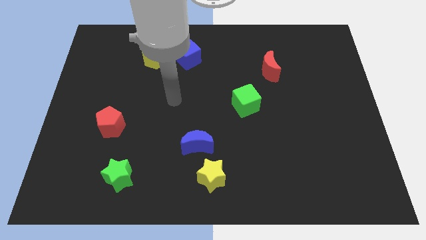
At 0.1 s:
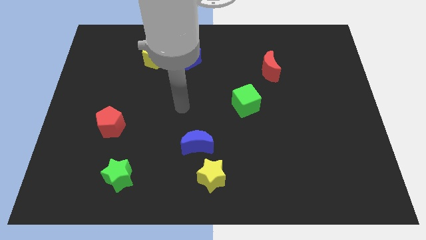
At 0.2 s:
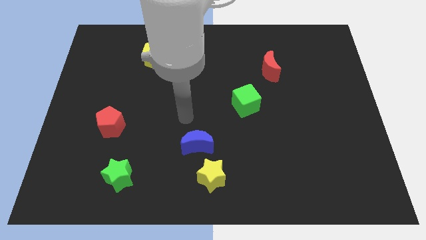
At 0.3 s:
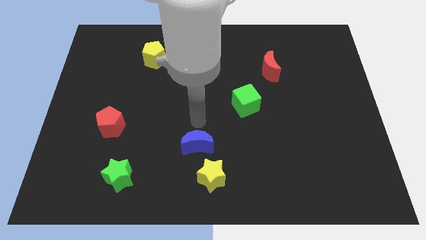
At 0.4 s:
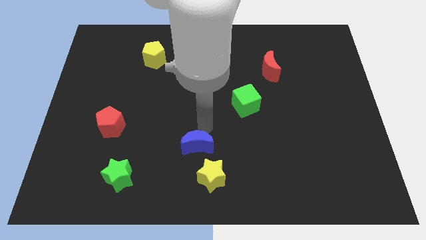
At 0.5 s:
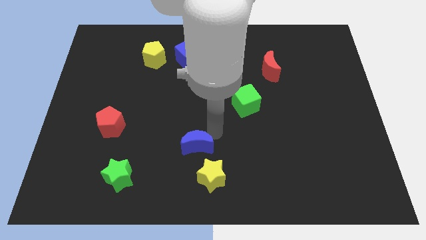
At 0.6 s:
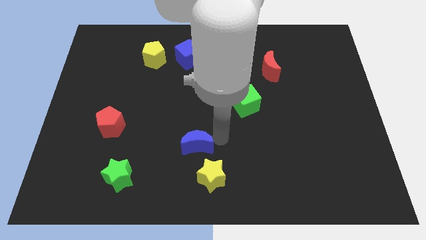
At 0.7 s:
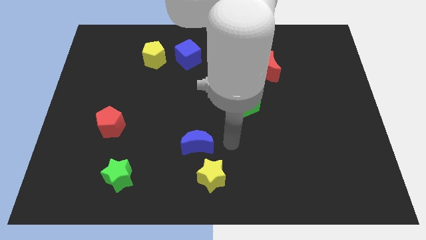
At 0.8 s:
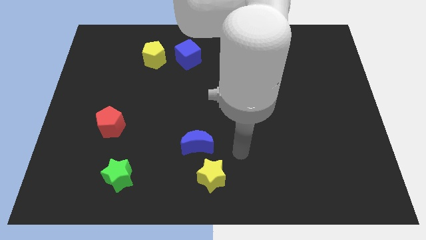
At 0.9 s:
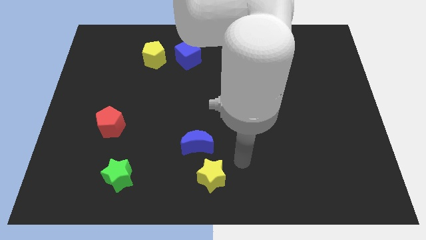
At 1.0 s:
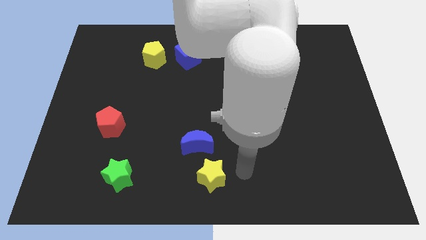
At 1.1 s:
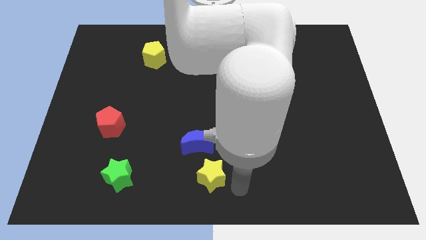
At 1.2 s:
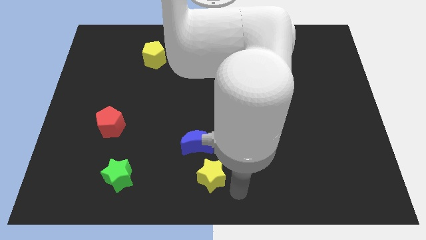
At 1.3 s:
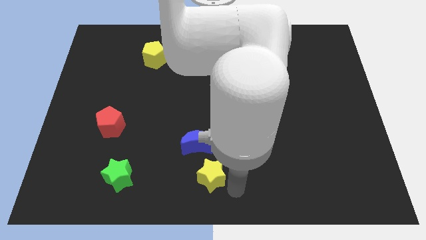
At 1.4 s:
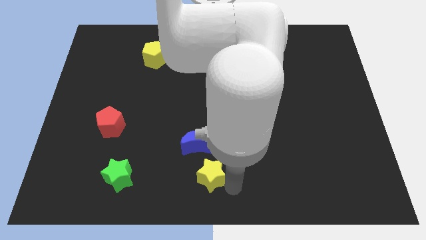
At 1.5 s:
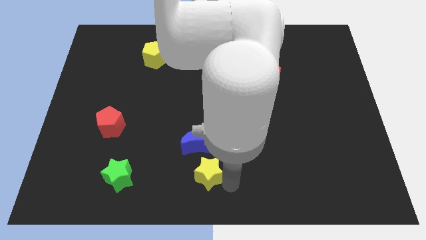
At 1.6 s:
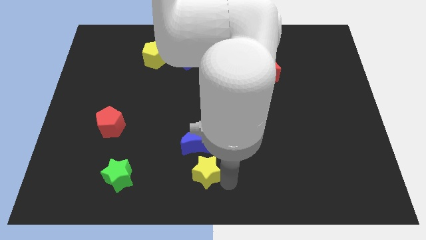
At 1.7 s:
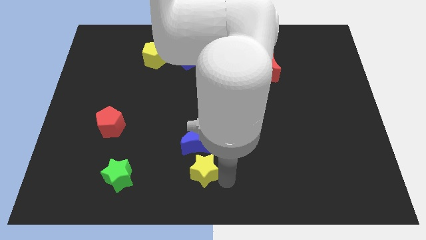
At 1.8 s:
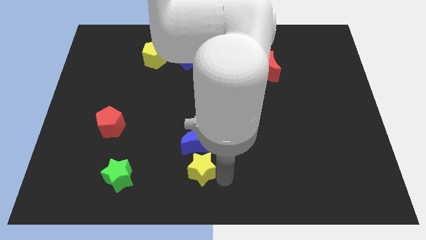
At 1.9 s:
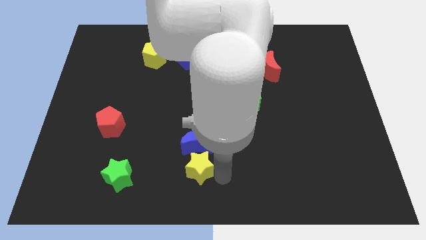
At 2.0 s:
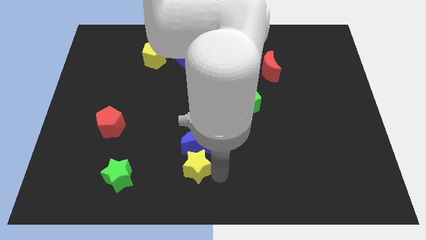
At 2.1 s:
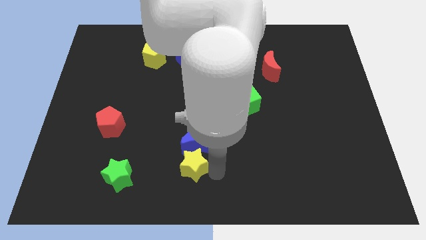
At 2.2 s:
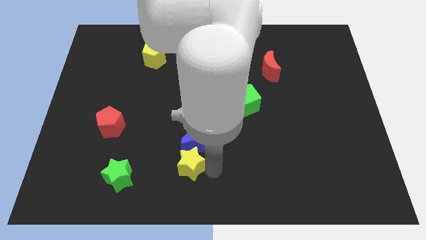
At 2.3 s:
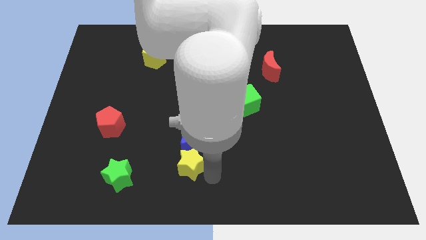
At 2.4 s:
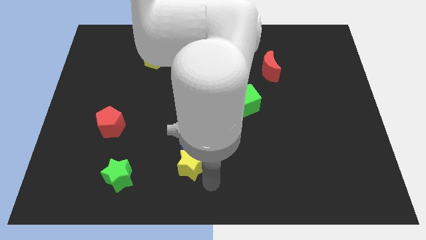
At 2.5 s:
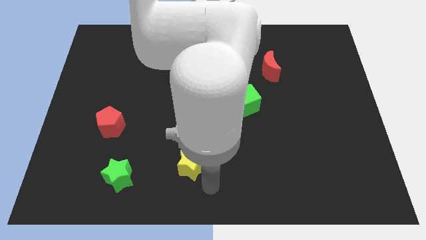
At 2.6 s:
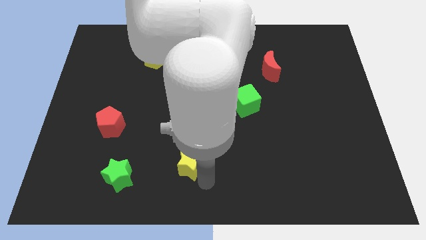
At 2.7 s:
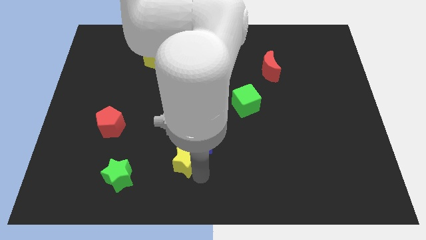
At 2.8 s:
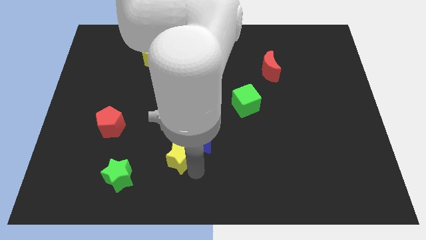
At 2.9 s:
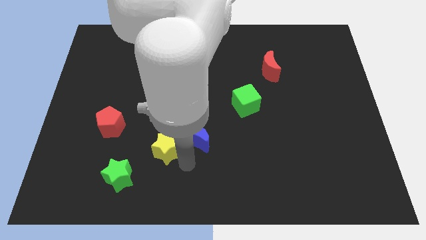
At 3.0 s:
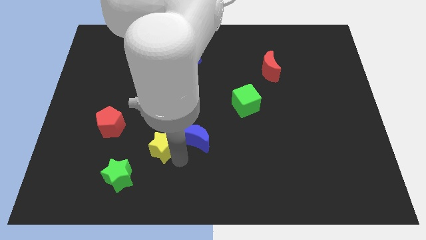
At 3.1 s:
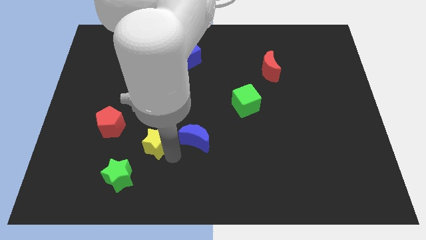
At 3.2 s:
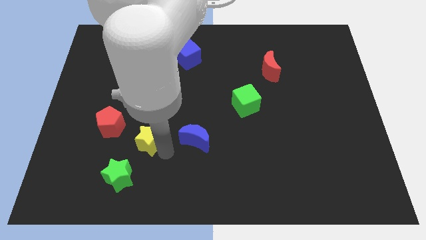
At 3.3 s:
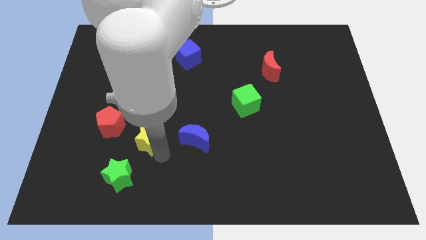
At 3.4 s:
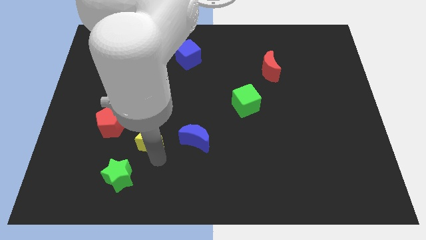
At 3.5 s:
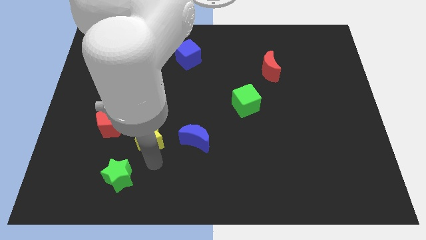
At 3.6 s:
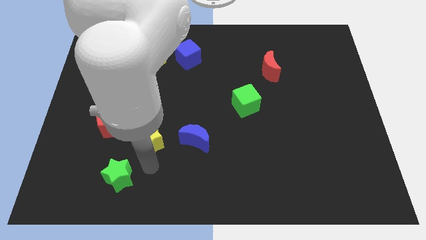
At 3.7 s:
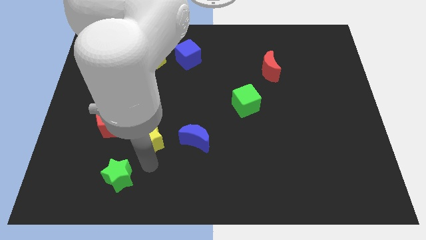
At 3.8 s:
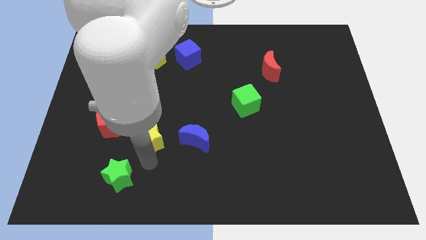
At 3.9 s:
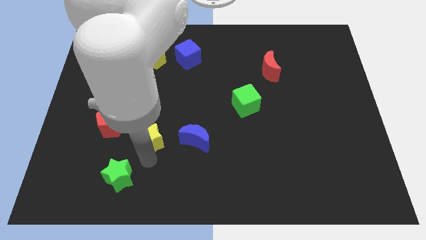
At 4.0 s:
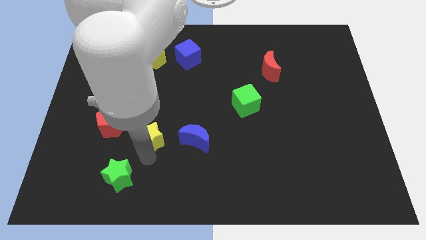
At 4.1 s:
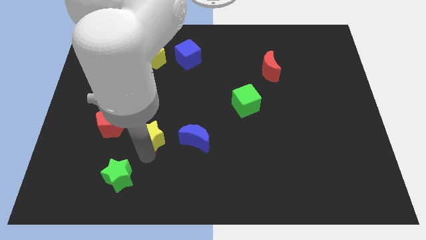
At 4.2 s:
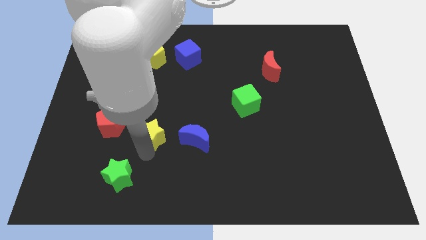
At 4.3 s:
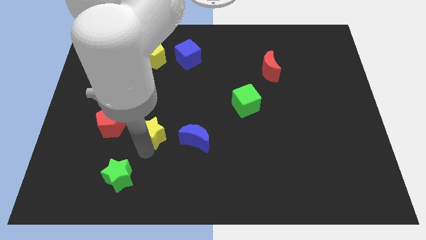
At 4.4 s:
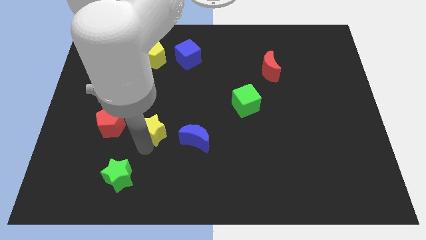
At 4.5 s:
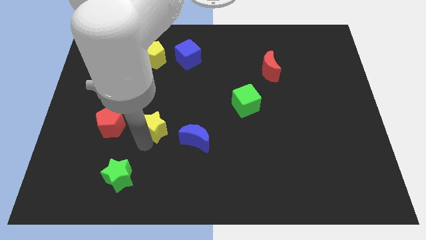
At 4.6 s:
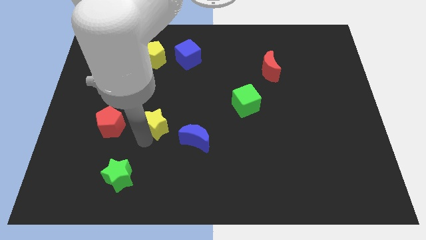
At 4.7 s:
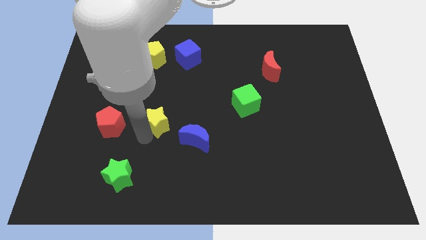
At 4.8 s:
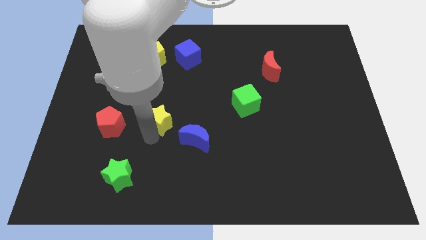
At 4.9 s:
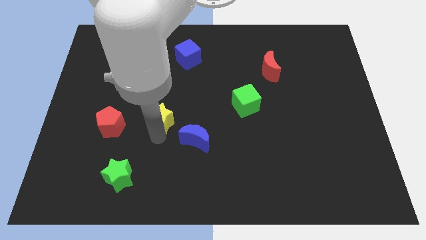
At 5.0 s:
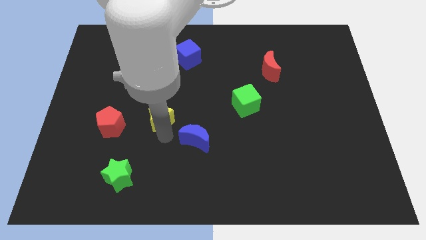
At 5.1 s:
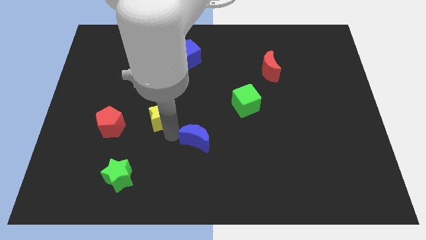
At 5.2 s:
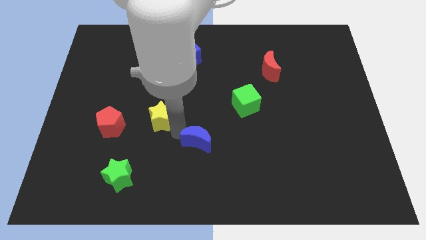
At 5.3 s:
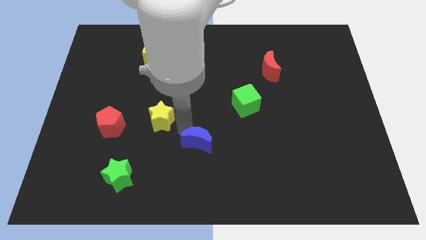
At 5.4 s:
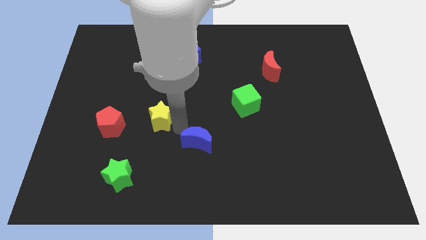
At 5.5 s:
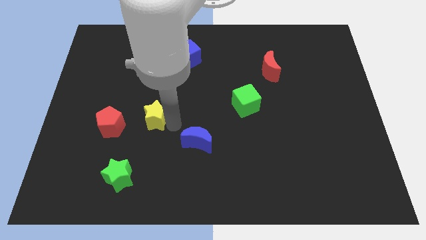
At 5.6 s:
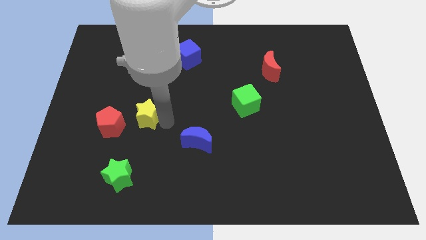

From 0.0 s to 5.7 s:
slide the yellow star upwards and then to the left

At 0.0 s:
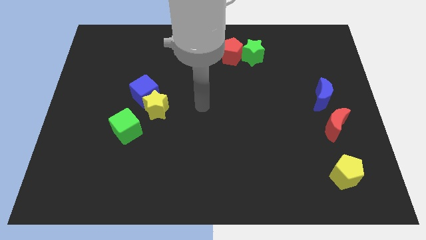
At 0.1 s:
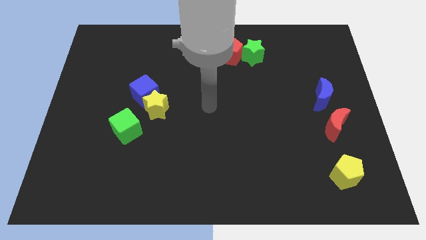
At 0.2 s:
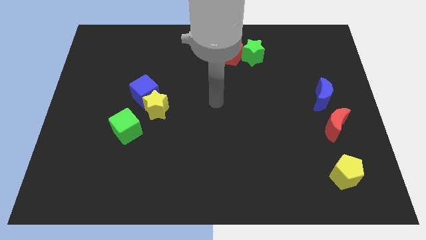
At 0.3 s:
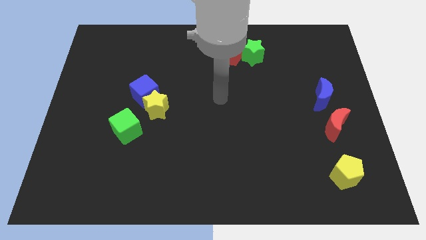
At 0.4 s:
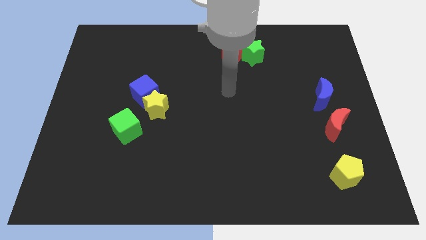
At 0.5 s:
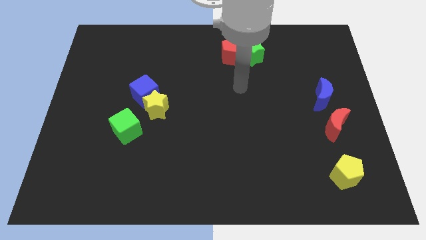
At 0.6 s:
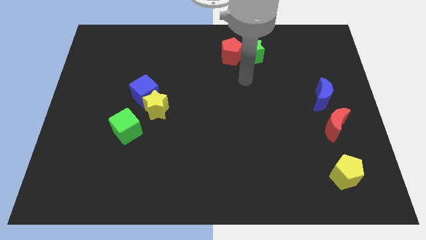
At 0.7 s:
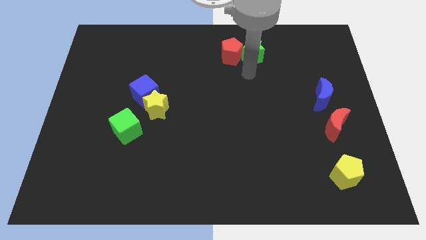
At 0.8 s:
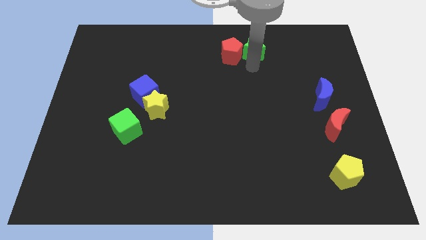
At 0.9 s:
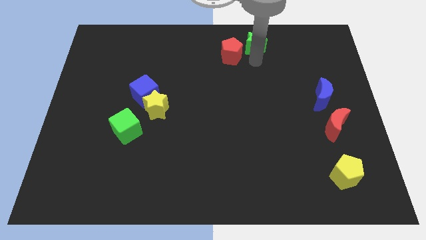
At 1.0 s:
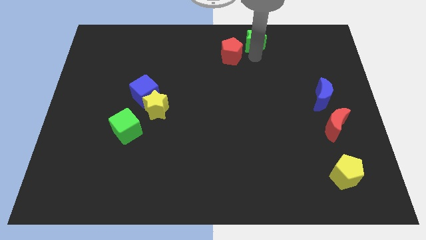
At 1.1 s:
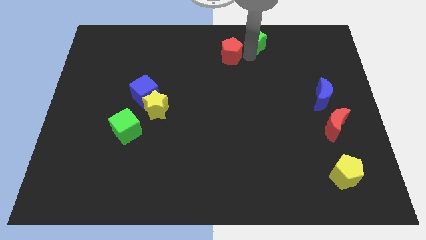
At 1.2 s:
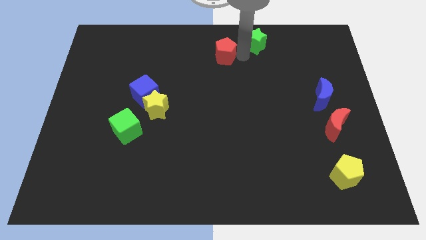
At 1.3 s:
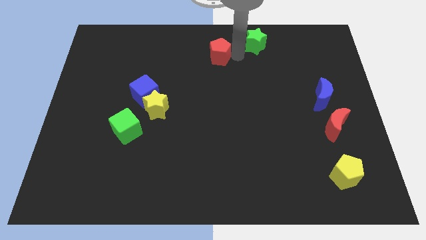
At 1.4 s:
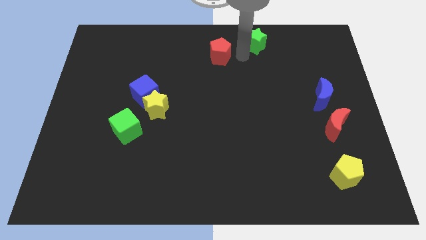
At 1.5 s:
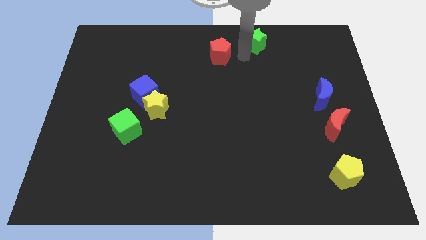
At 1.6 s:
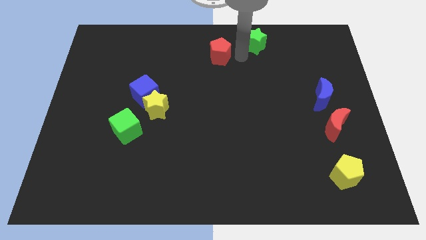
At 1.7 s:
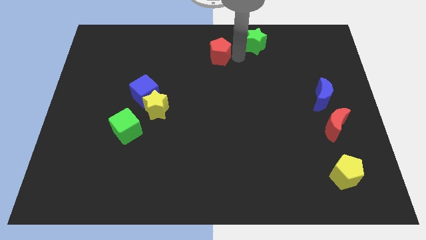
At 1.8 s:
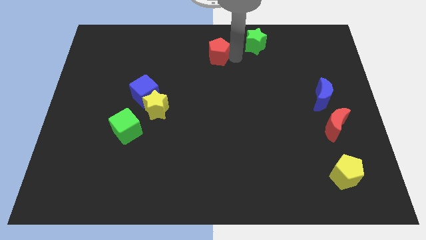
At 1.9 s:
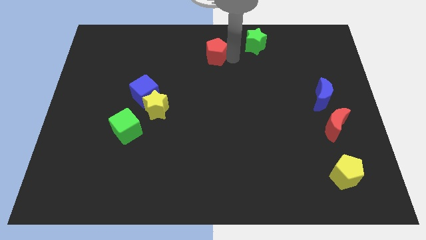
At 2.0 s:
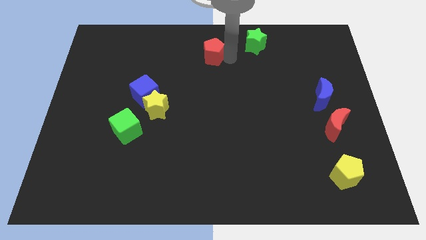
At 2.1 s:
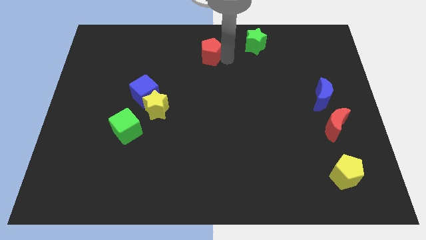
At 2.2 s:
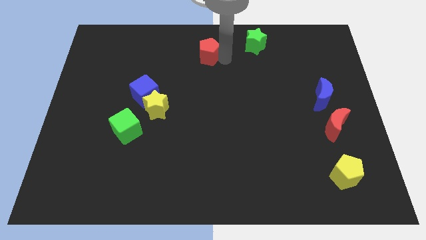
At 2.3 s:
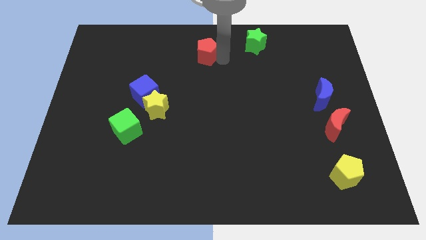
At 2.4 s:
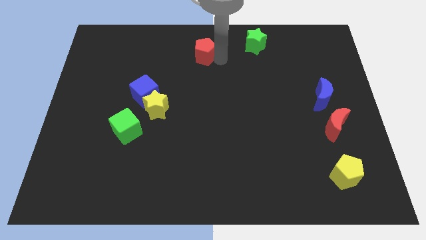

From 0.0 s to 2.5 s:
slide the red pentagon a little left
